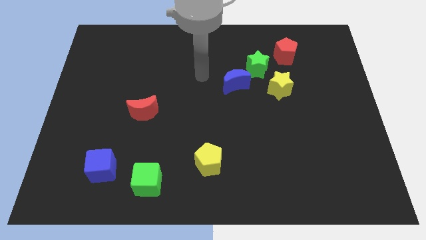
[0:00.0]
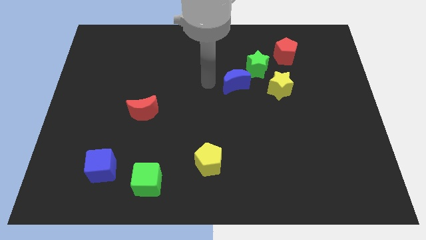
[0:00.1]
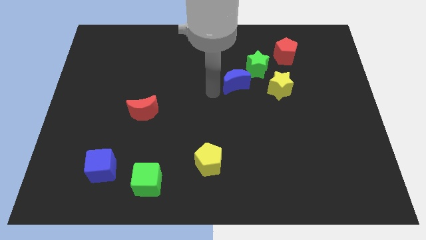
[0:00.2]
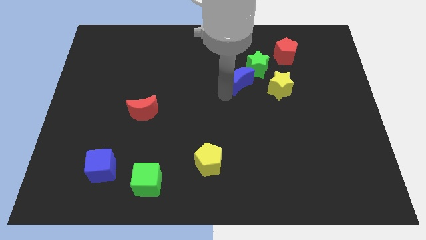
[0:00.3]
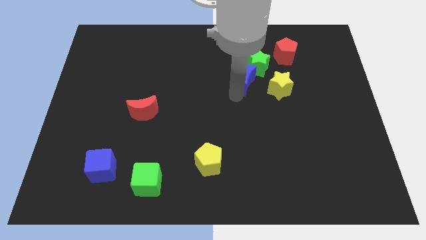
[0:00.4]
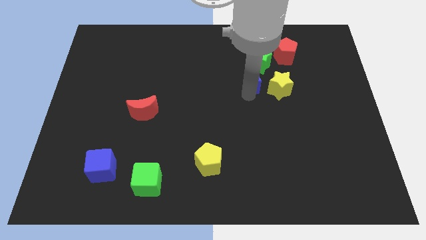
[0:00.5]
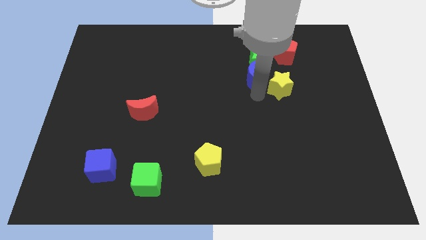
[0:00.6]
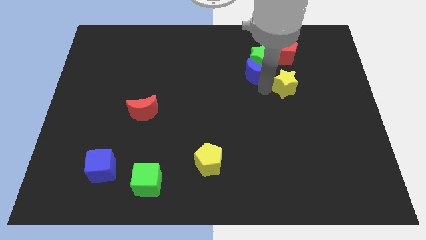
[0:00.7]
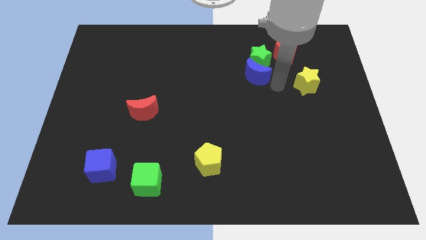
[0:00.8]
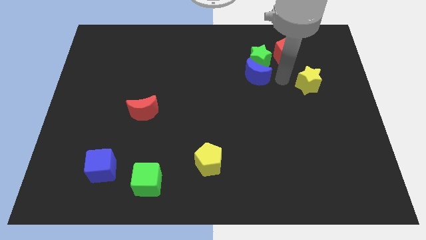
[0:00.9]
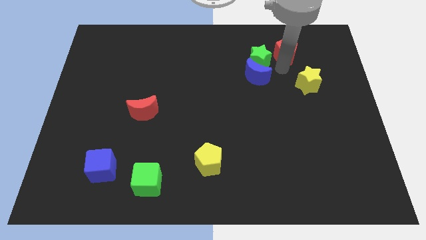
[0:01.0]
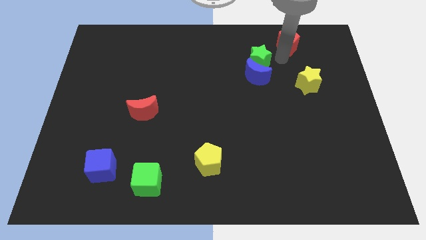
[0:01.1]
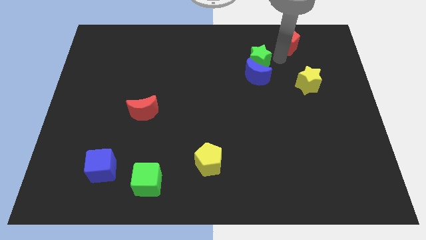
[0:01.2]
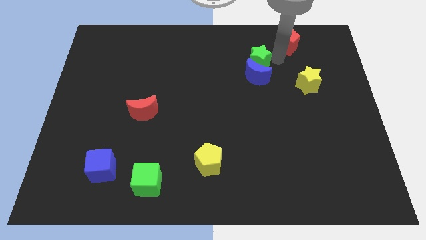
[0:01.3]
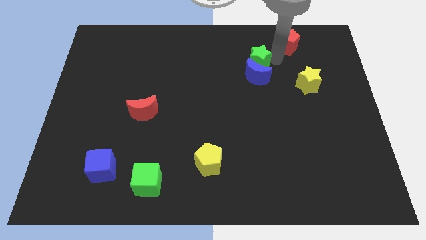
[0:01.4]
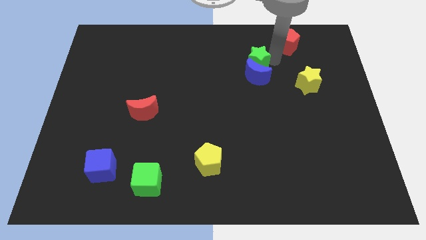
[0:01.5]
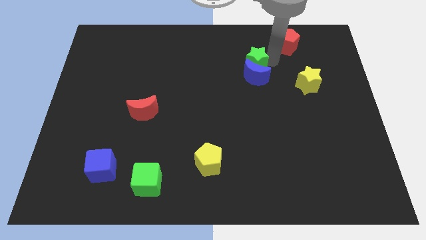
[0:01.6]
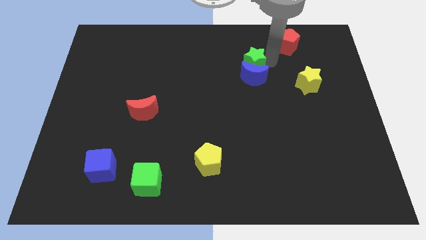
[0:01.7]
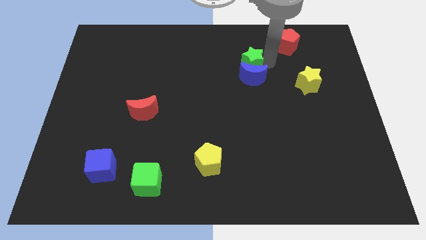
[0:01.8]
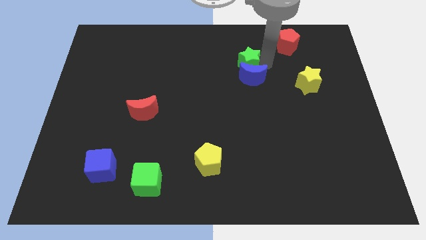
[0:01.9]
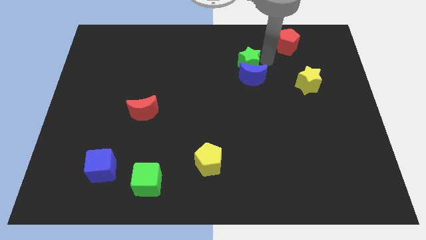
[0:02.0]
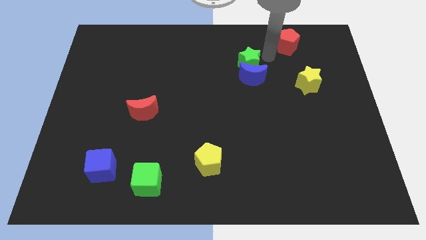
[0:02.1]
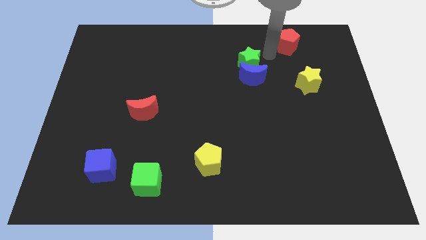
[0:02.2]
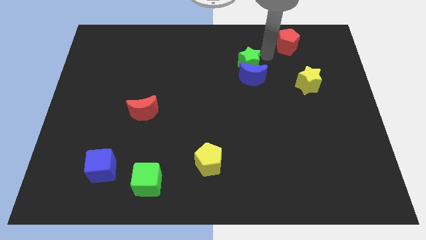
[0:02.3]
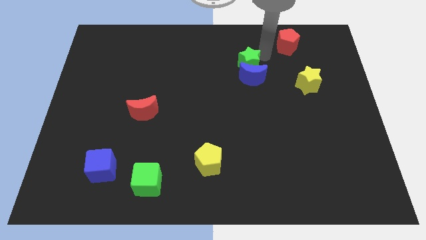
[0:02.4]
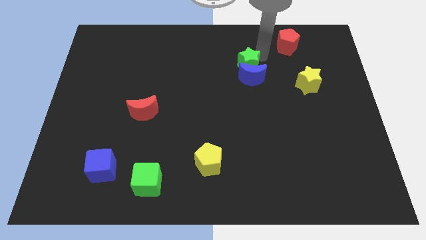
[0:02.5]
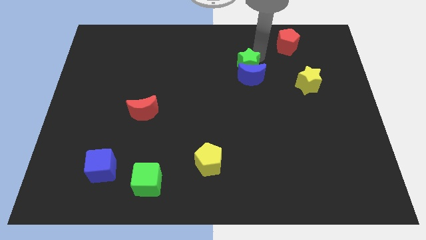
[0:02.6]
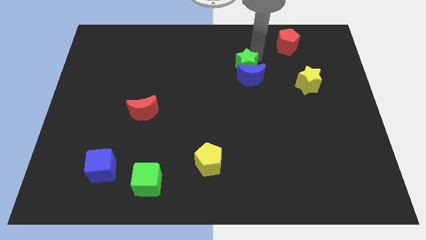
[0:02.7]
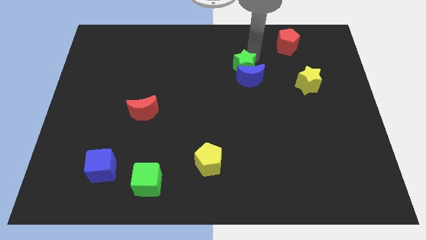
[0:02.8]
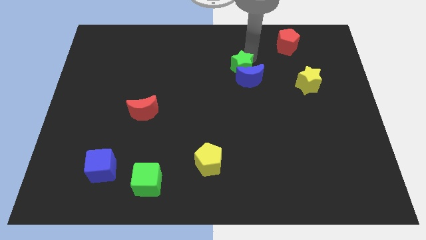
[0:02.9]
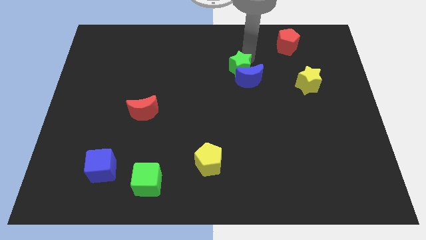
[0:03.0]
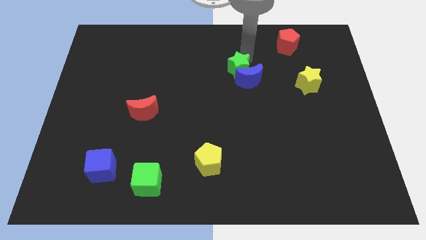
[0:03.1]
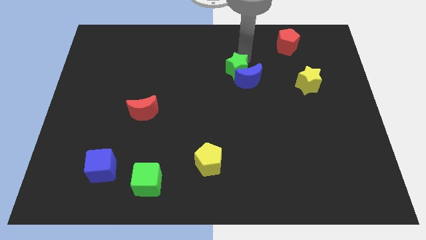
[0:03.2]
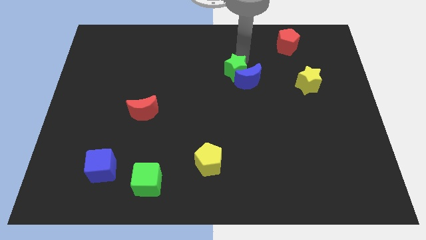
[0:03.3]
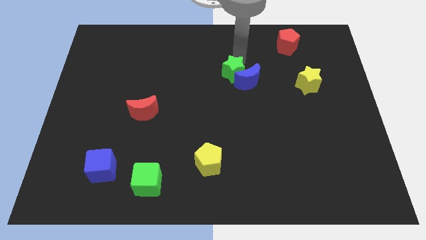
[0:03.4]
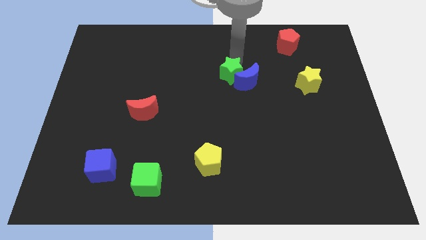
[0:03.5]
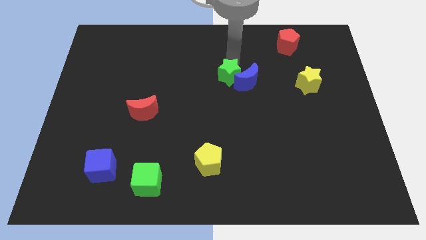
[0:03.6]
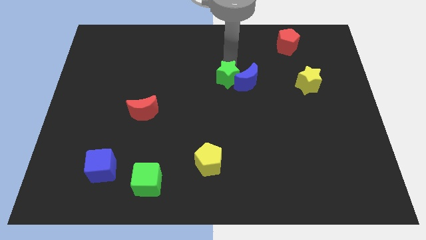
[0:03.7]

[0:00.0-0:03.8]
slide the green star downwards and to the left a bit

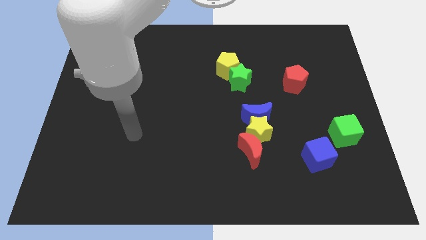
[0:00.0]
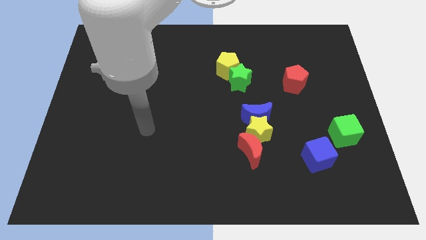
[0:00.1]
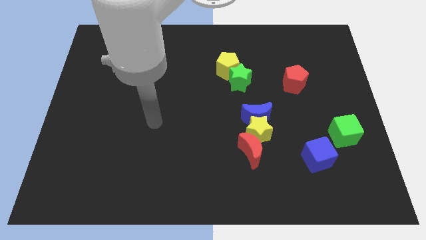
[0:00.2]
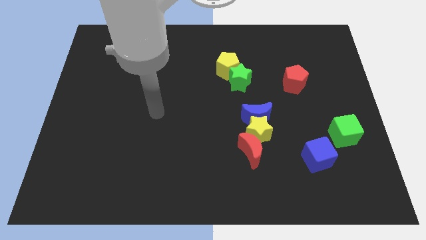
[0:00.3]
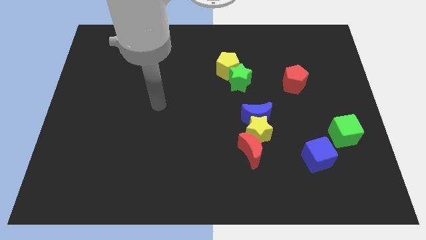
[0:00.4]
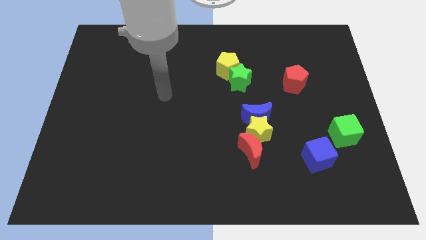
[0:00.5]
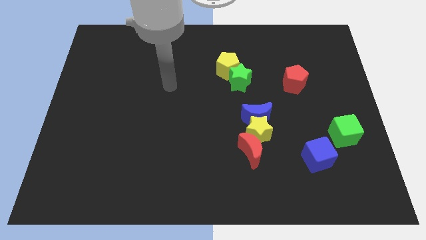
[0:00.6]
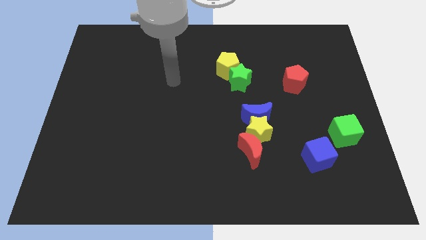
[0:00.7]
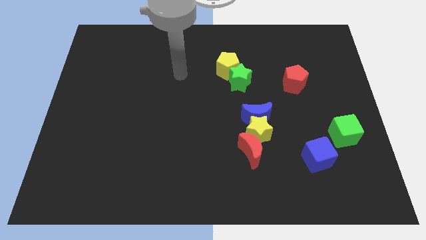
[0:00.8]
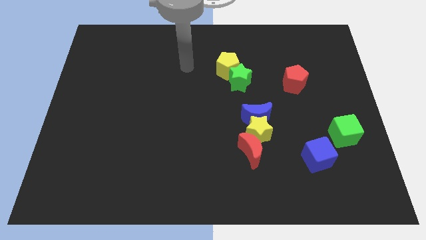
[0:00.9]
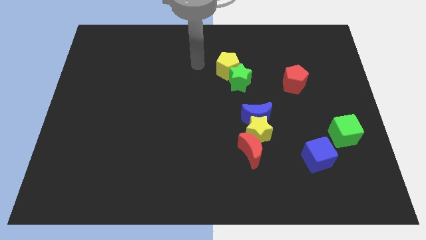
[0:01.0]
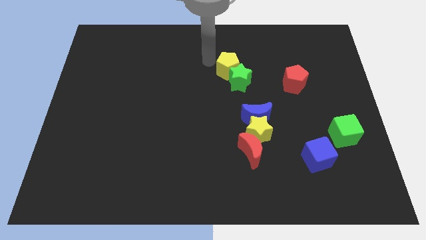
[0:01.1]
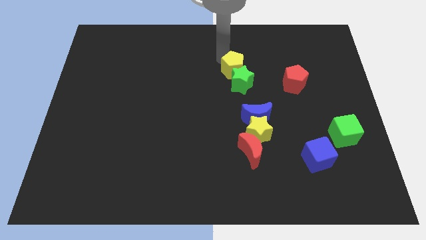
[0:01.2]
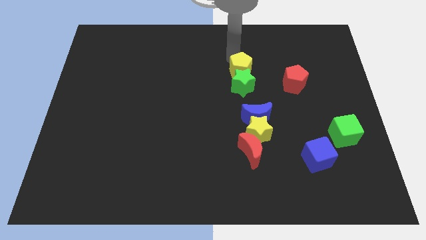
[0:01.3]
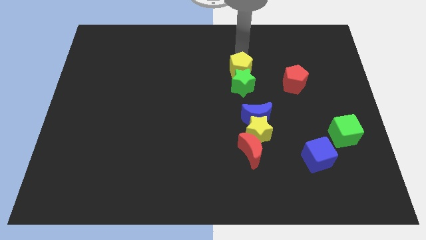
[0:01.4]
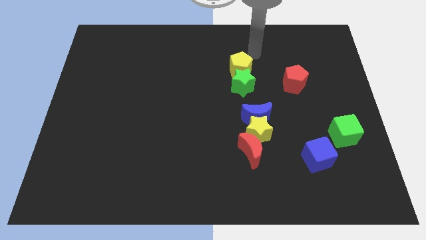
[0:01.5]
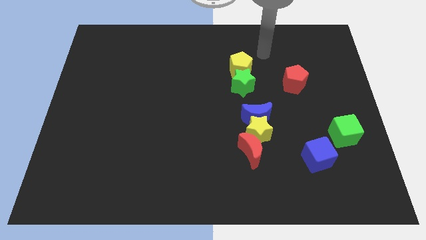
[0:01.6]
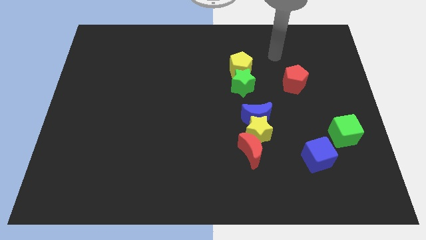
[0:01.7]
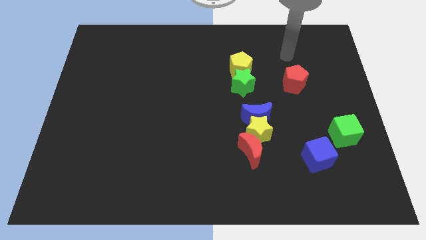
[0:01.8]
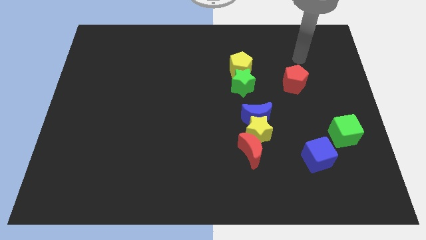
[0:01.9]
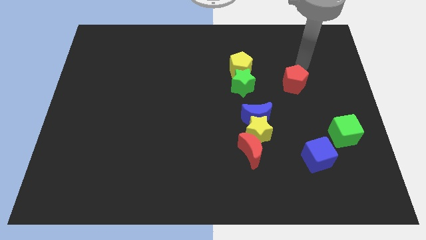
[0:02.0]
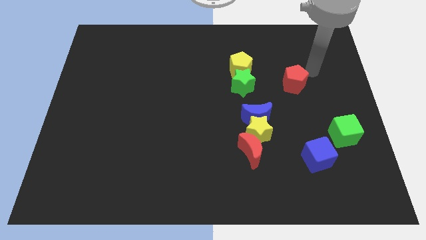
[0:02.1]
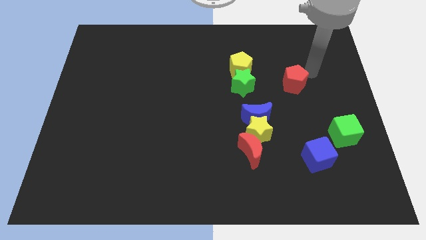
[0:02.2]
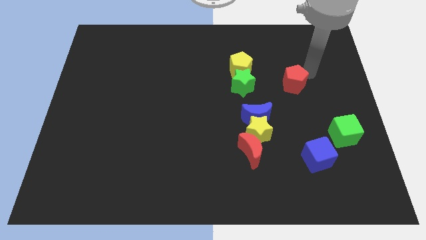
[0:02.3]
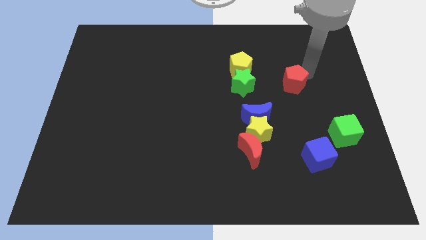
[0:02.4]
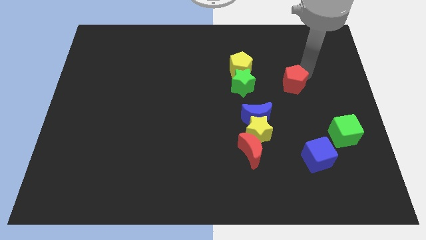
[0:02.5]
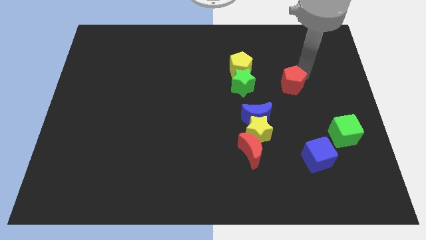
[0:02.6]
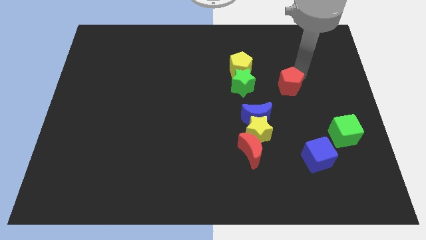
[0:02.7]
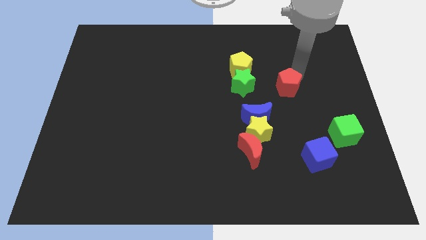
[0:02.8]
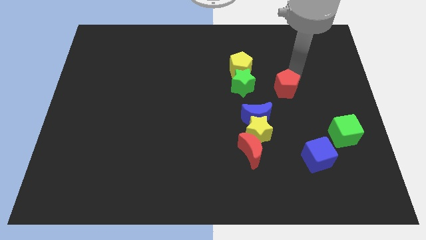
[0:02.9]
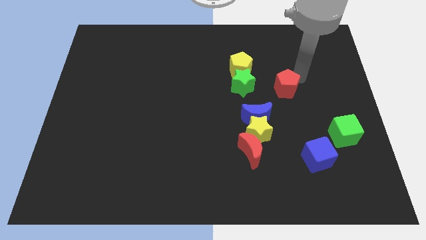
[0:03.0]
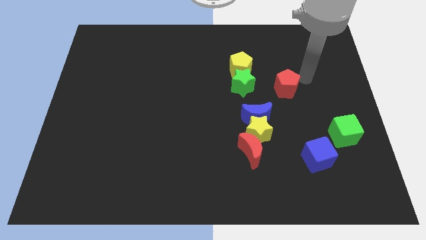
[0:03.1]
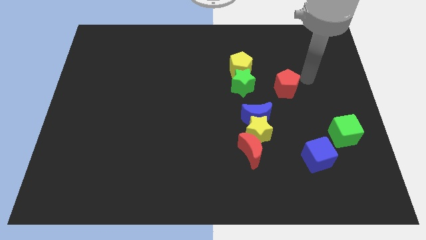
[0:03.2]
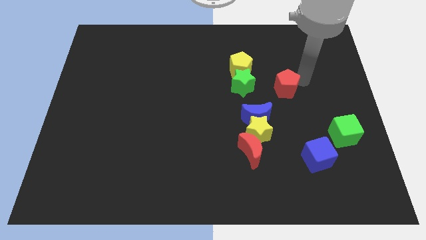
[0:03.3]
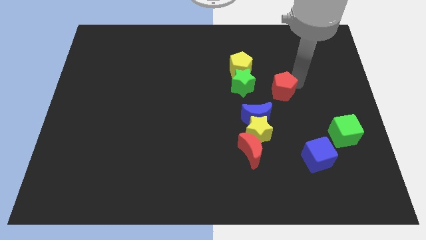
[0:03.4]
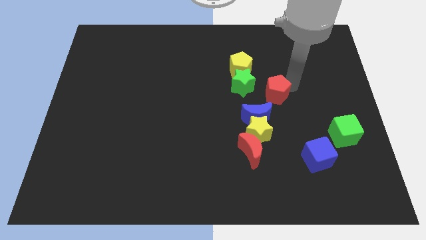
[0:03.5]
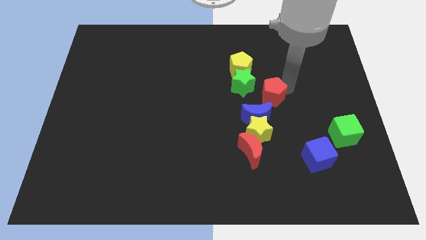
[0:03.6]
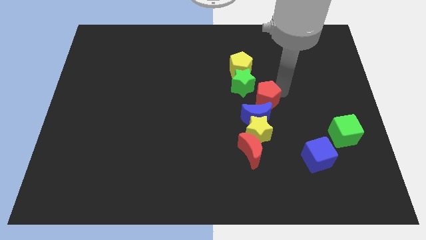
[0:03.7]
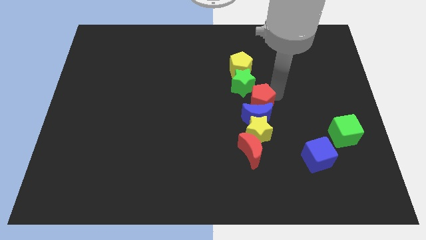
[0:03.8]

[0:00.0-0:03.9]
push the red pentagon to the left a little
